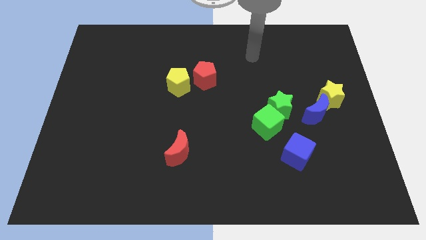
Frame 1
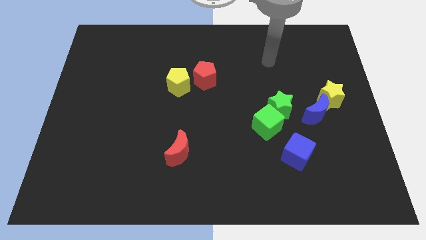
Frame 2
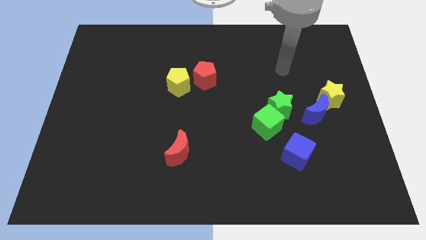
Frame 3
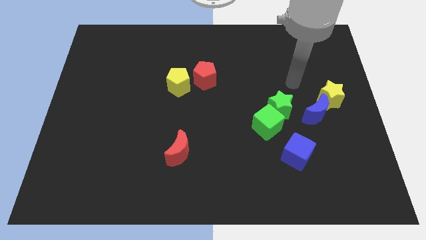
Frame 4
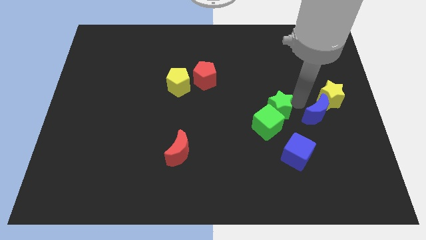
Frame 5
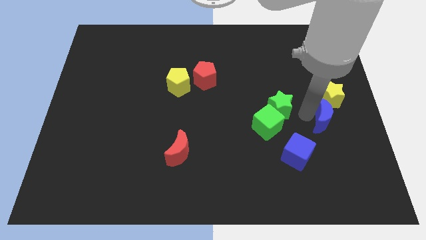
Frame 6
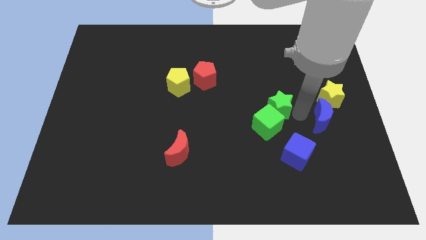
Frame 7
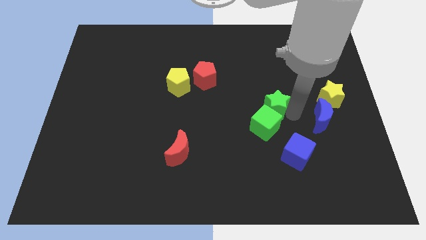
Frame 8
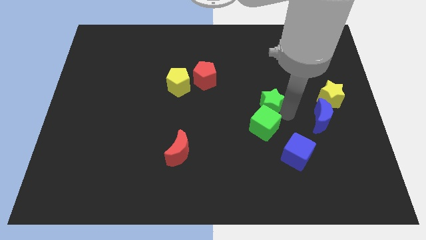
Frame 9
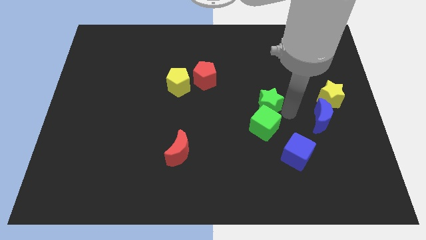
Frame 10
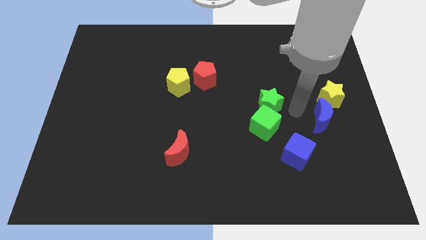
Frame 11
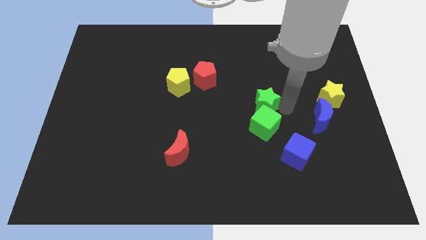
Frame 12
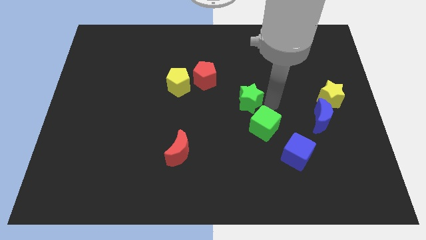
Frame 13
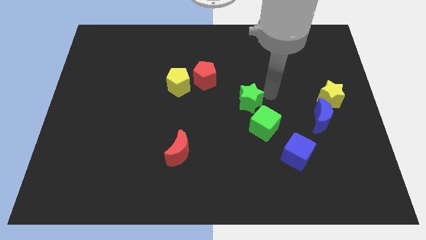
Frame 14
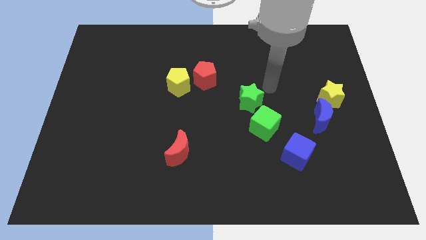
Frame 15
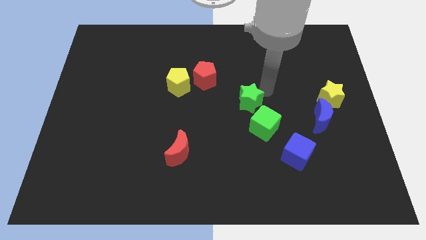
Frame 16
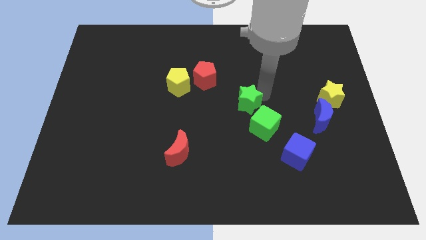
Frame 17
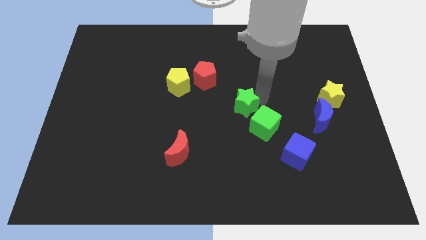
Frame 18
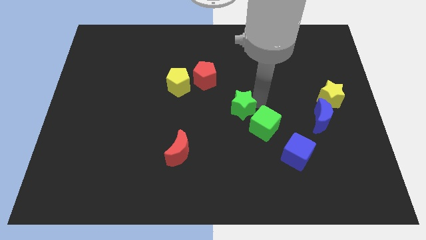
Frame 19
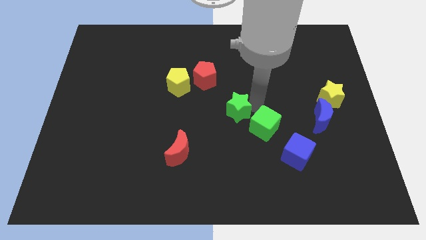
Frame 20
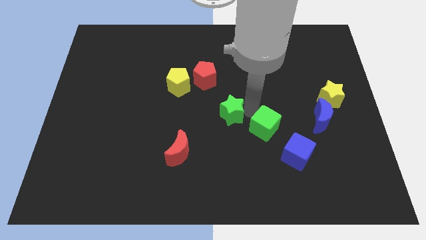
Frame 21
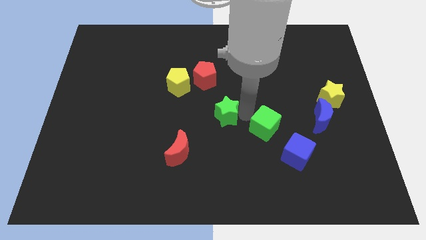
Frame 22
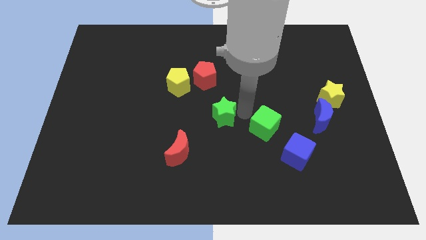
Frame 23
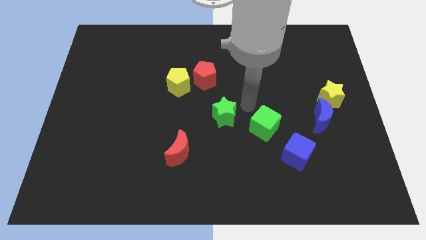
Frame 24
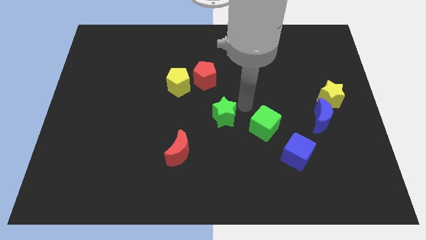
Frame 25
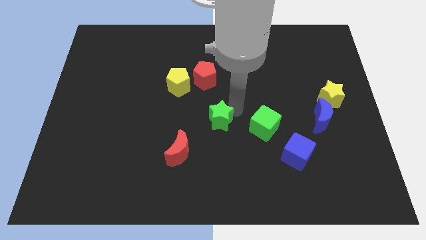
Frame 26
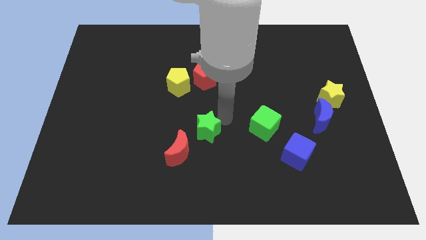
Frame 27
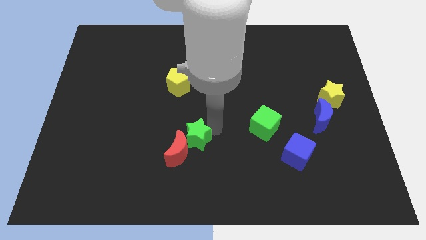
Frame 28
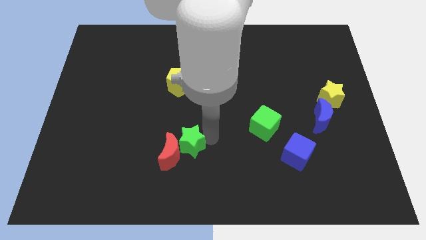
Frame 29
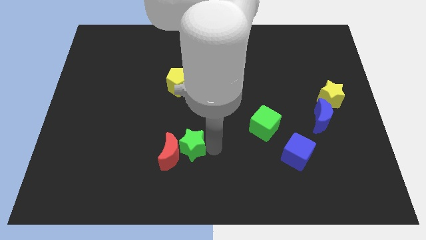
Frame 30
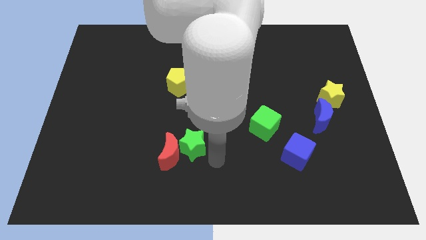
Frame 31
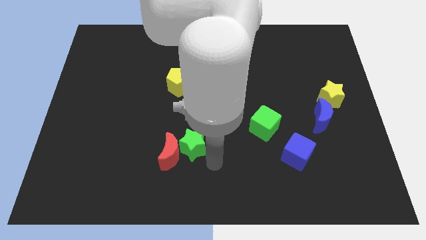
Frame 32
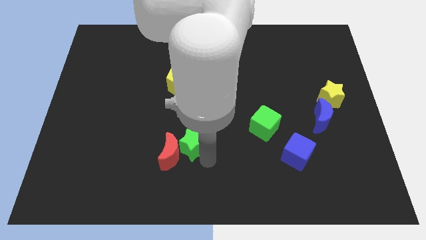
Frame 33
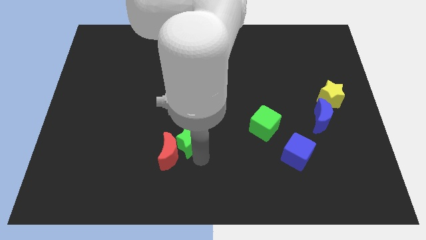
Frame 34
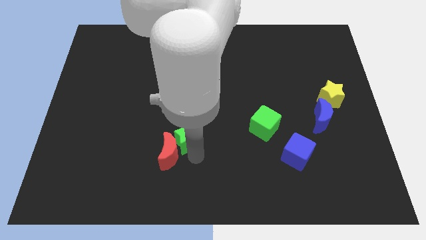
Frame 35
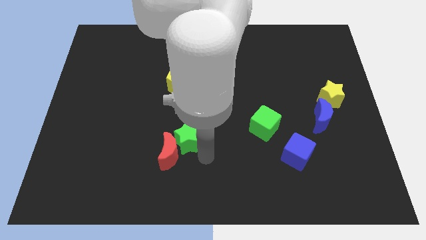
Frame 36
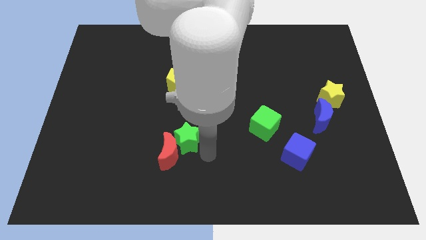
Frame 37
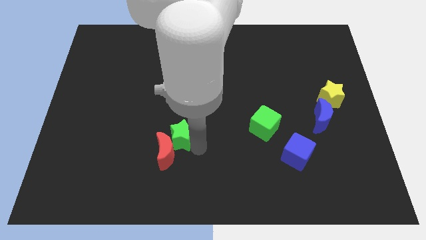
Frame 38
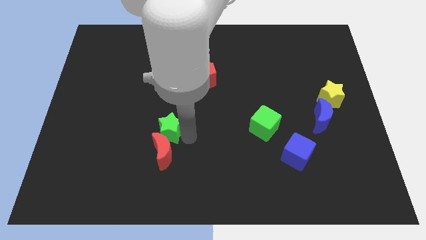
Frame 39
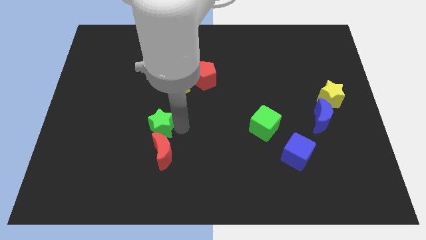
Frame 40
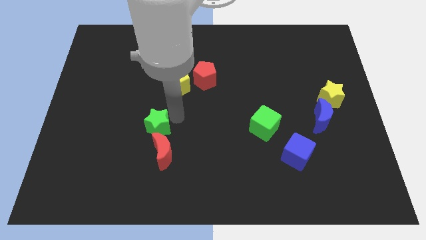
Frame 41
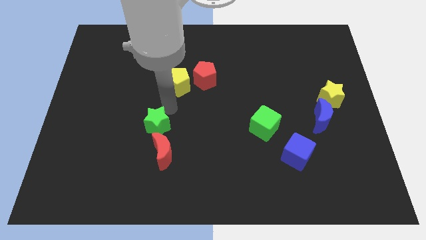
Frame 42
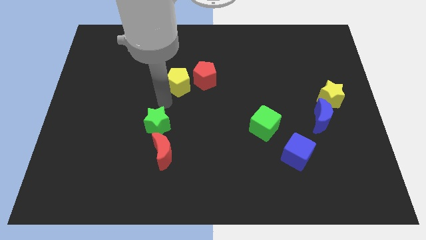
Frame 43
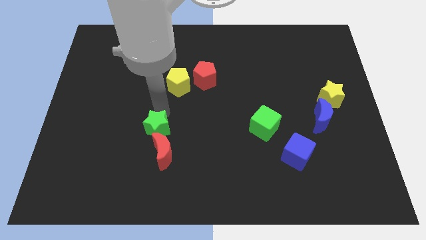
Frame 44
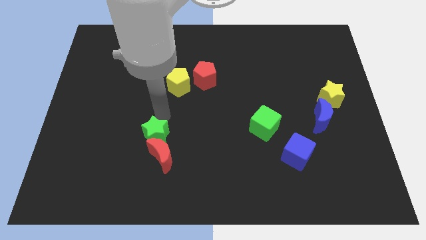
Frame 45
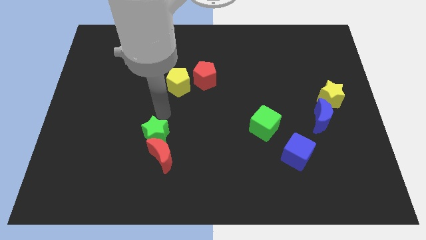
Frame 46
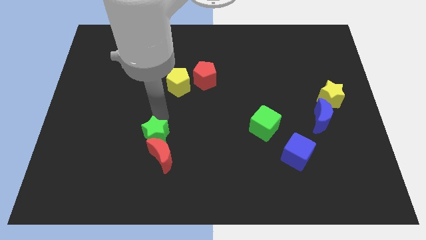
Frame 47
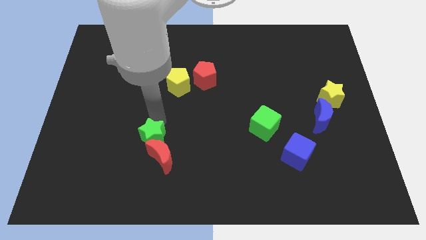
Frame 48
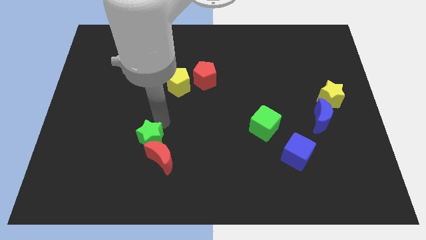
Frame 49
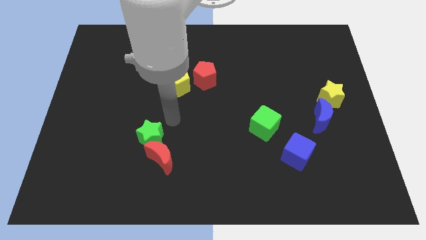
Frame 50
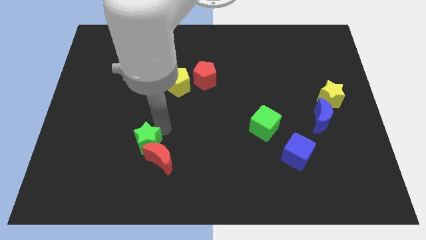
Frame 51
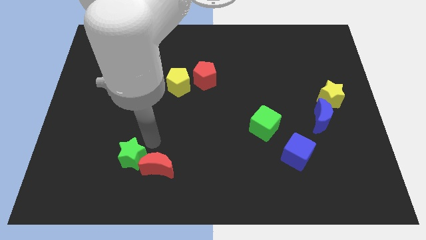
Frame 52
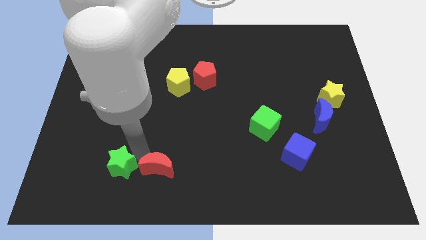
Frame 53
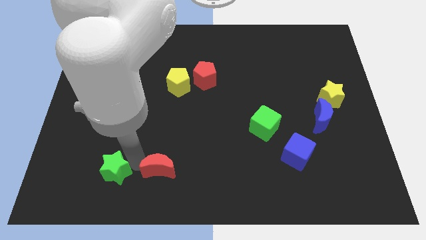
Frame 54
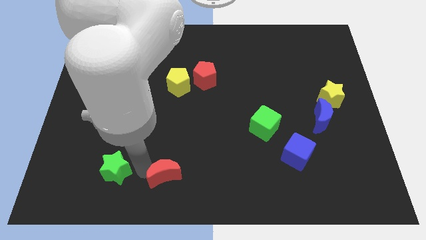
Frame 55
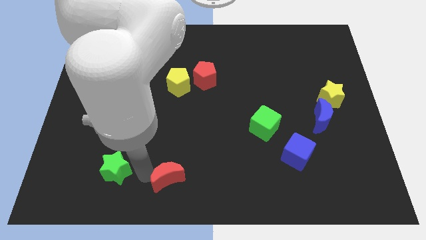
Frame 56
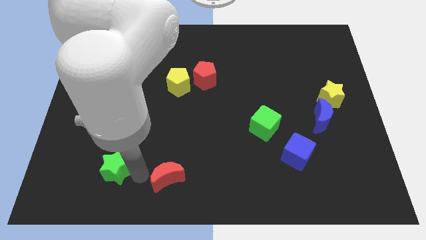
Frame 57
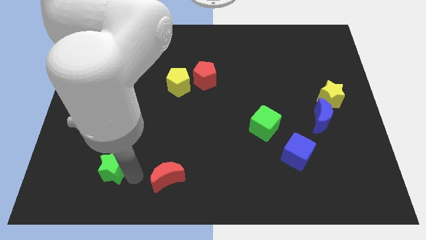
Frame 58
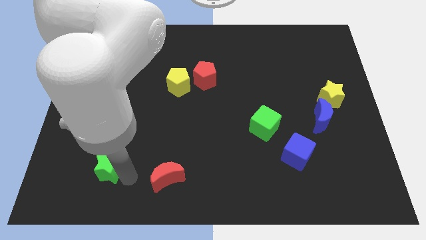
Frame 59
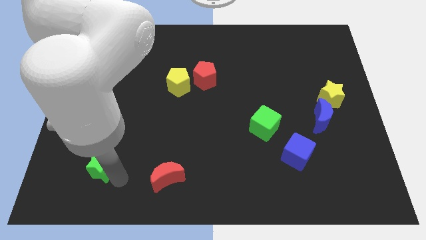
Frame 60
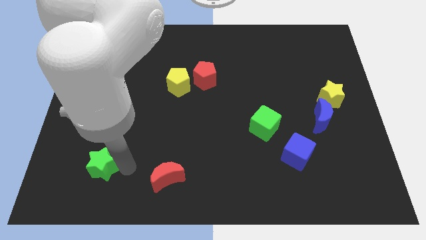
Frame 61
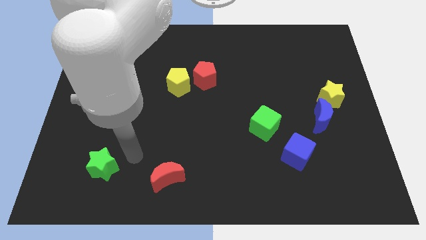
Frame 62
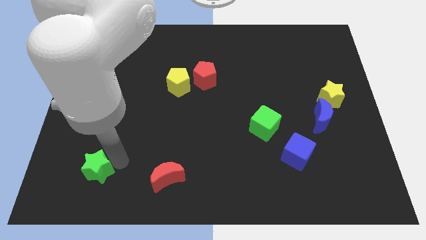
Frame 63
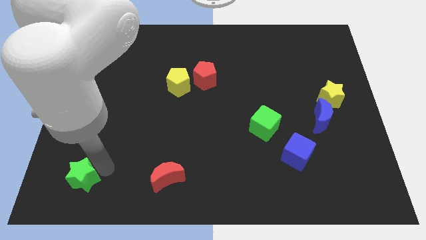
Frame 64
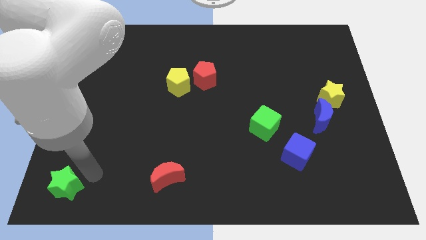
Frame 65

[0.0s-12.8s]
move the green star to the bottom left corner
